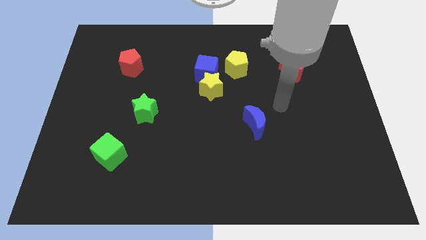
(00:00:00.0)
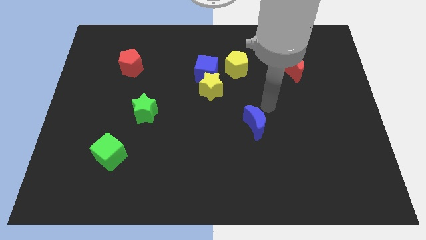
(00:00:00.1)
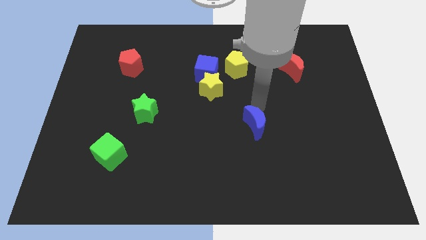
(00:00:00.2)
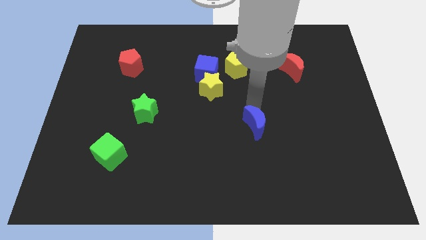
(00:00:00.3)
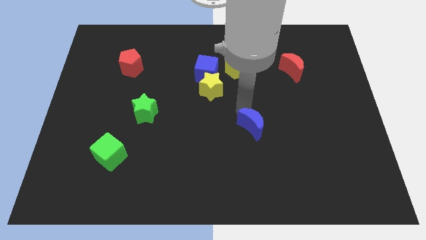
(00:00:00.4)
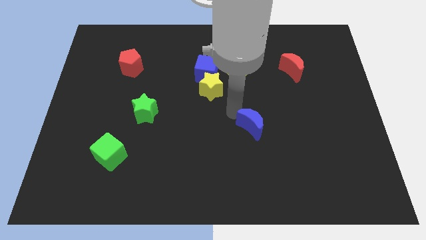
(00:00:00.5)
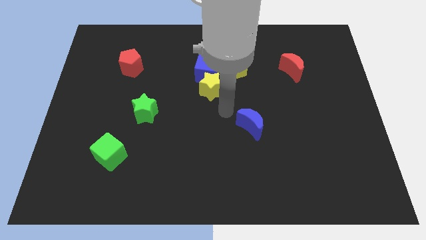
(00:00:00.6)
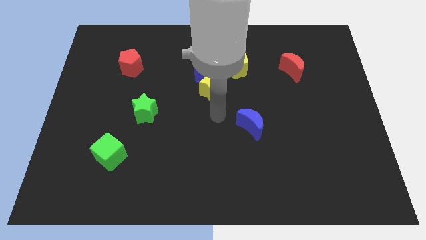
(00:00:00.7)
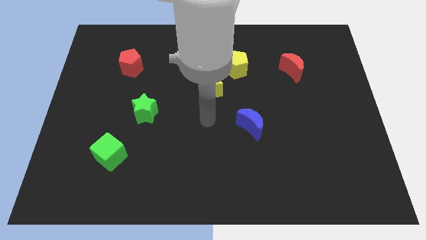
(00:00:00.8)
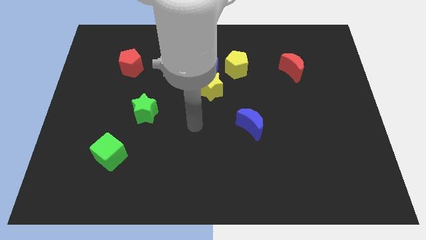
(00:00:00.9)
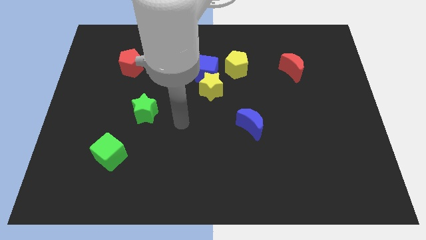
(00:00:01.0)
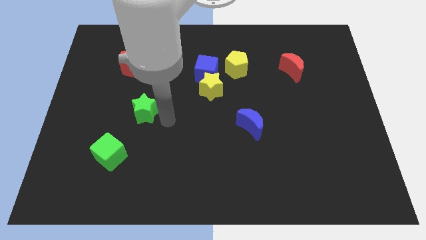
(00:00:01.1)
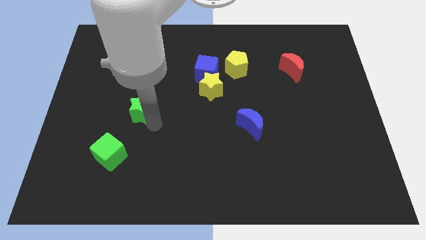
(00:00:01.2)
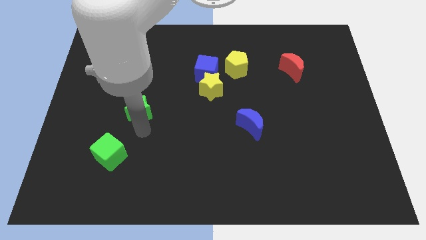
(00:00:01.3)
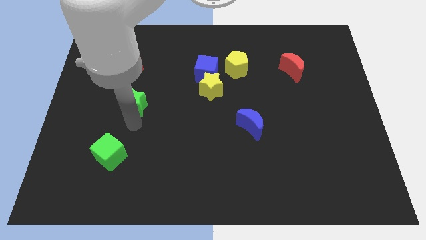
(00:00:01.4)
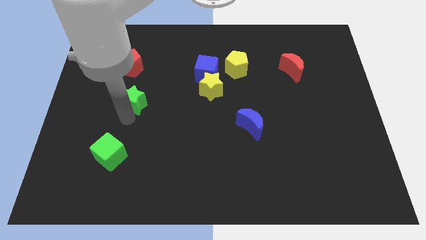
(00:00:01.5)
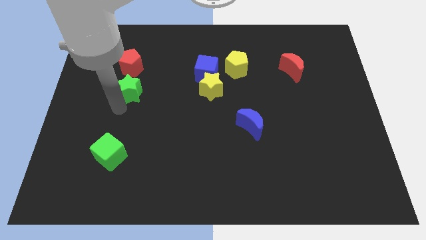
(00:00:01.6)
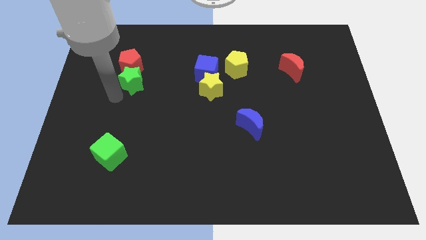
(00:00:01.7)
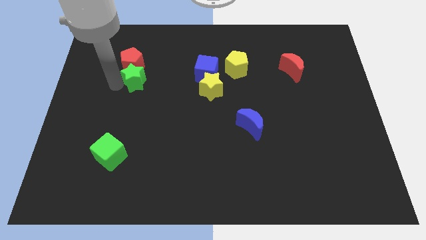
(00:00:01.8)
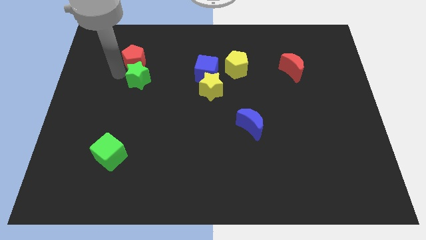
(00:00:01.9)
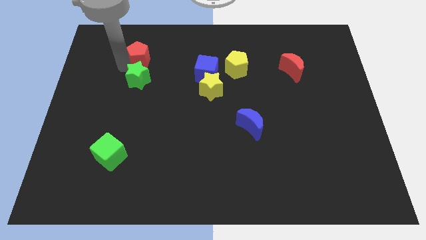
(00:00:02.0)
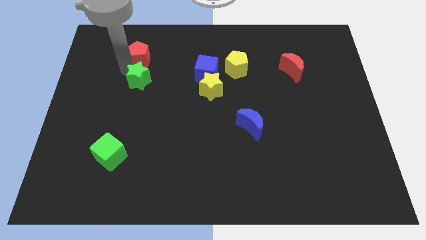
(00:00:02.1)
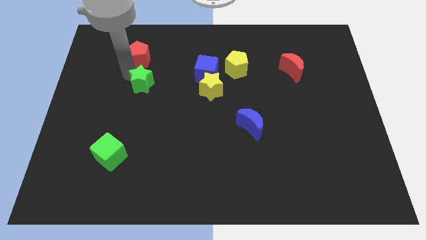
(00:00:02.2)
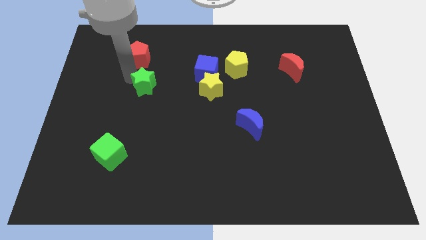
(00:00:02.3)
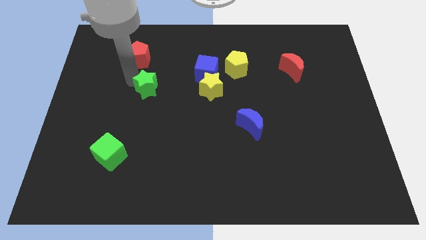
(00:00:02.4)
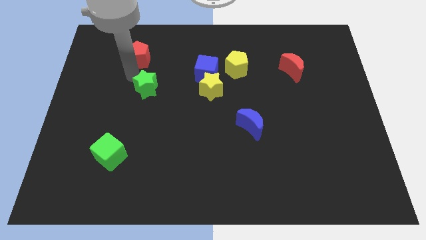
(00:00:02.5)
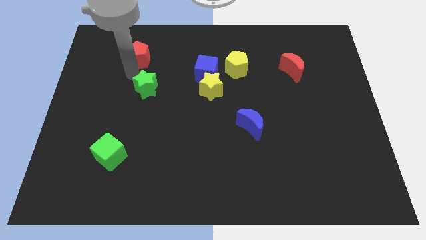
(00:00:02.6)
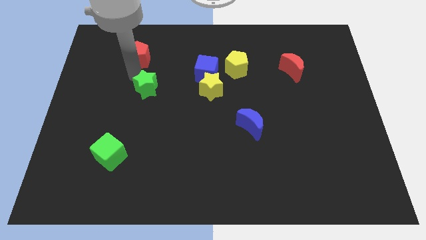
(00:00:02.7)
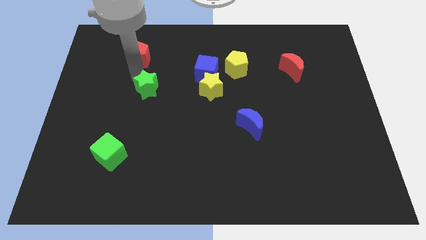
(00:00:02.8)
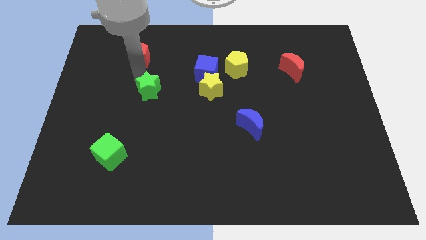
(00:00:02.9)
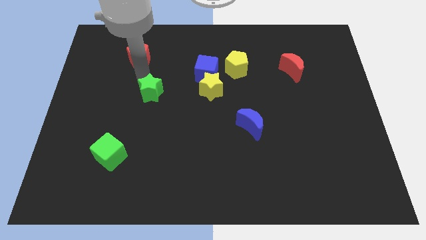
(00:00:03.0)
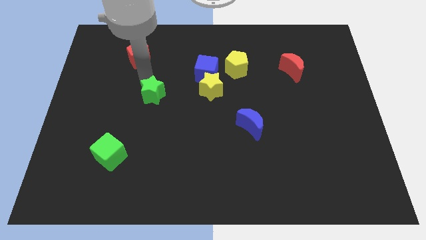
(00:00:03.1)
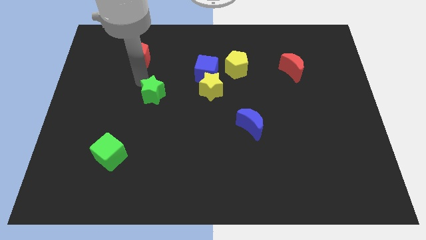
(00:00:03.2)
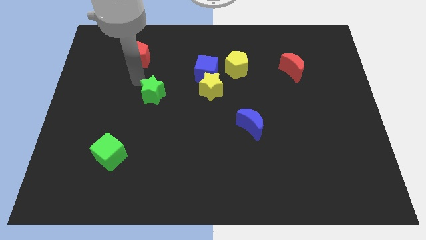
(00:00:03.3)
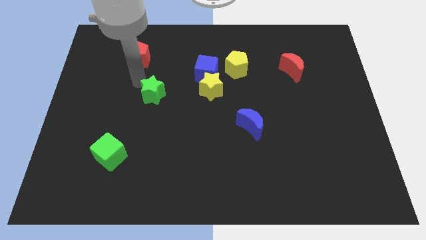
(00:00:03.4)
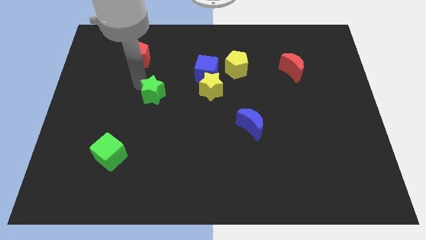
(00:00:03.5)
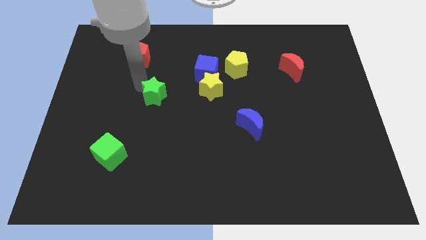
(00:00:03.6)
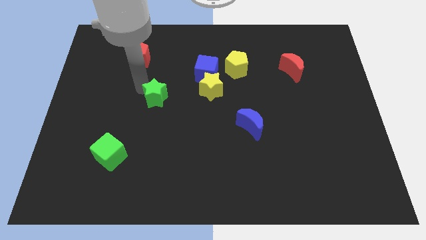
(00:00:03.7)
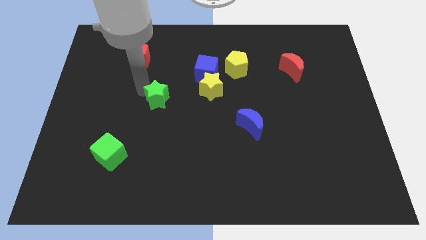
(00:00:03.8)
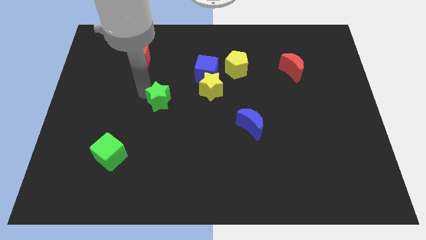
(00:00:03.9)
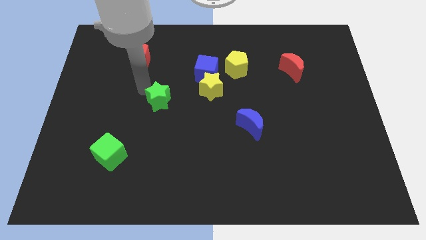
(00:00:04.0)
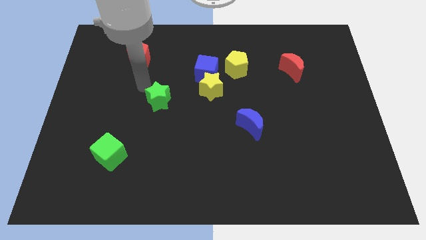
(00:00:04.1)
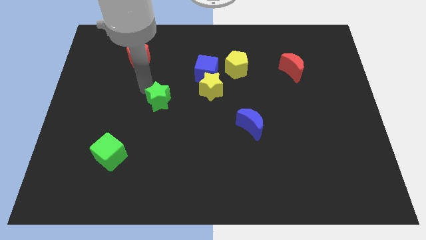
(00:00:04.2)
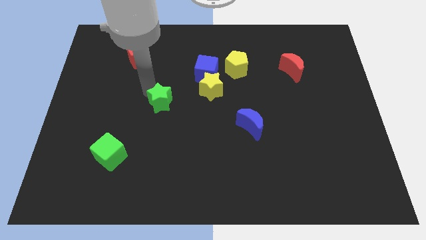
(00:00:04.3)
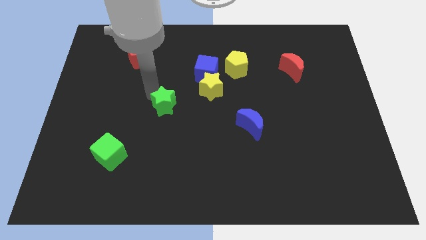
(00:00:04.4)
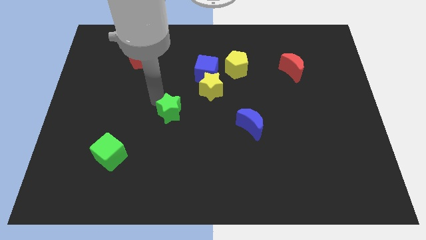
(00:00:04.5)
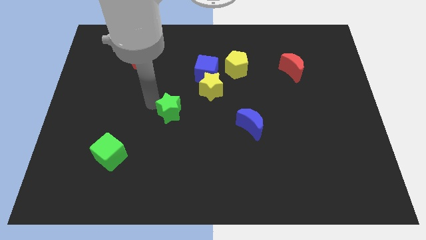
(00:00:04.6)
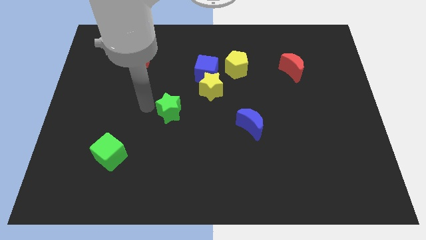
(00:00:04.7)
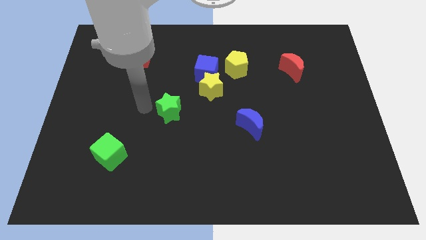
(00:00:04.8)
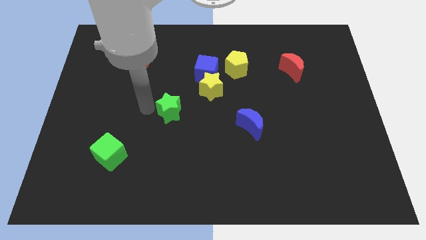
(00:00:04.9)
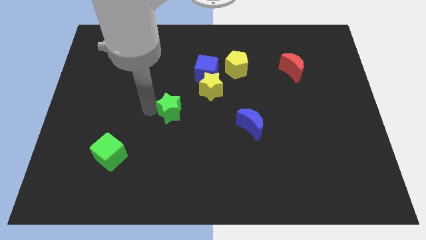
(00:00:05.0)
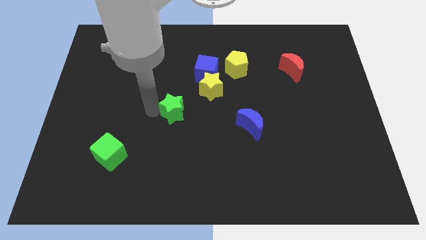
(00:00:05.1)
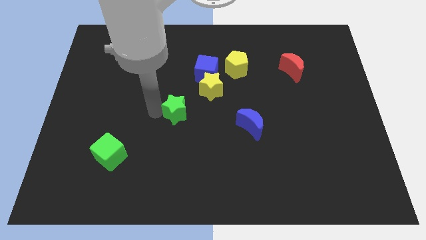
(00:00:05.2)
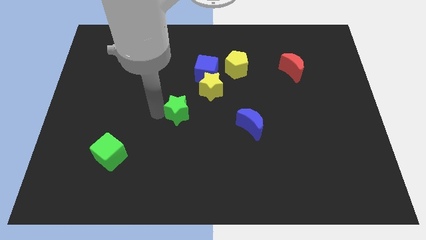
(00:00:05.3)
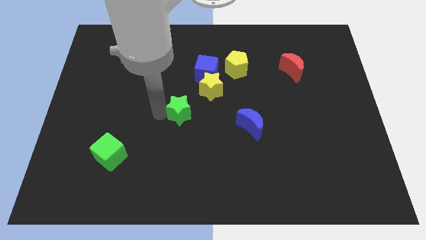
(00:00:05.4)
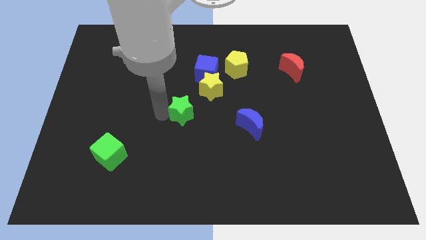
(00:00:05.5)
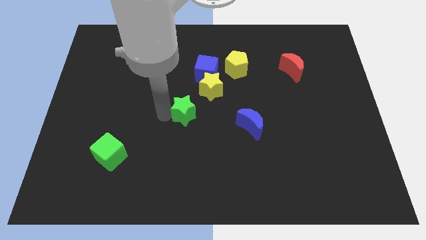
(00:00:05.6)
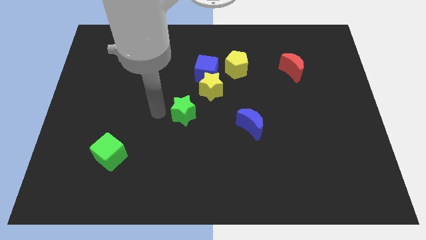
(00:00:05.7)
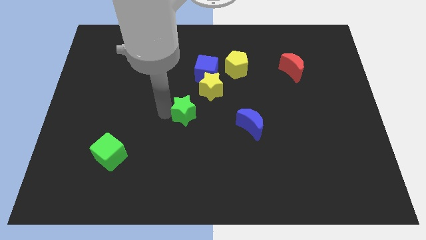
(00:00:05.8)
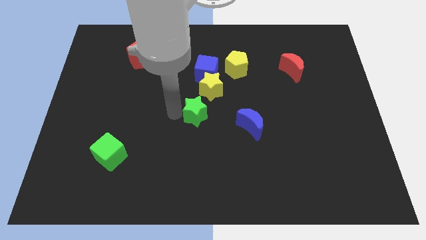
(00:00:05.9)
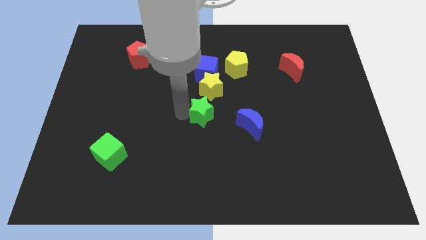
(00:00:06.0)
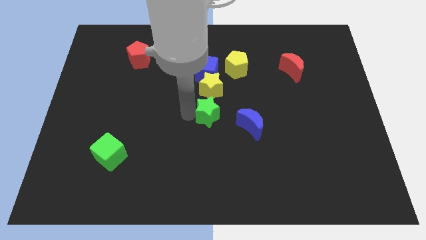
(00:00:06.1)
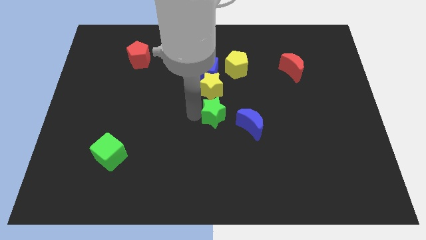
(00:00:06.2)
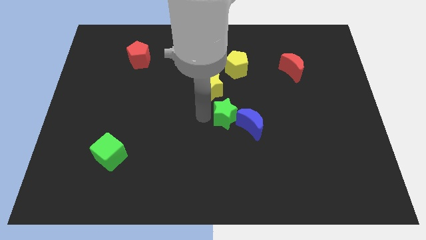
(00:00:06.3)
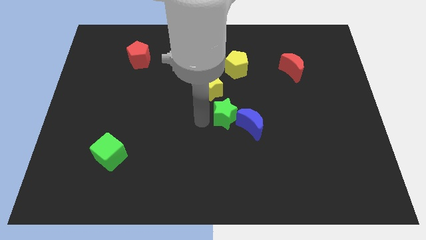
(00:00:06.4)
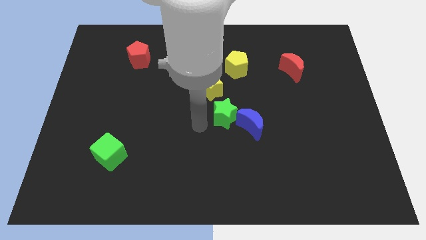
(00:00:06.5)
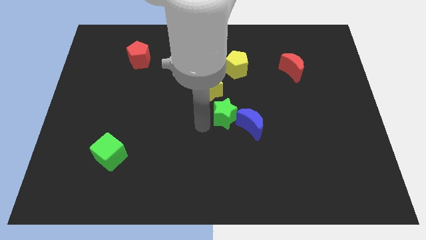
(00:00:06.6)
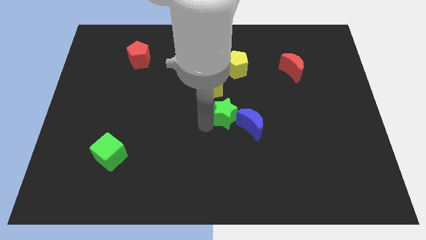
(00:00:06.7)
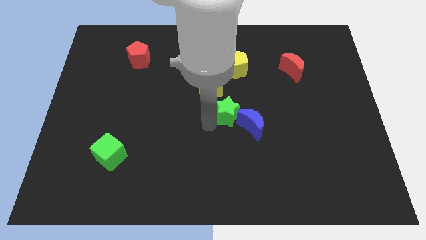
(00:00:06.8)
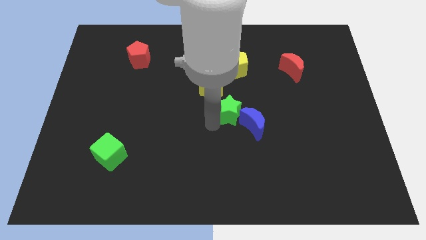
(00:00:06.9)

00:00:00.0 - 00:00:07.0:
slide the green star to the right

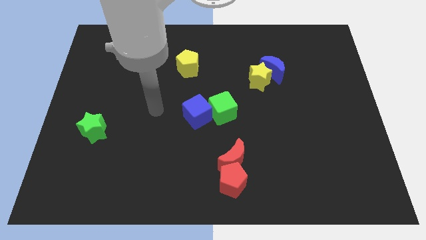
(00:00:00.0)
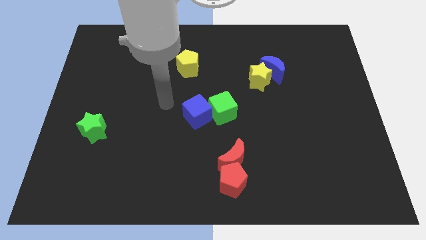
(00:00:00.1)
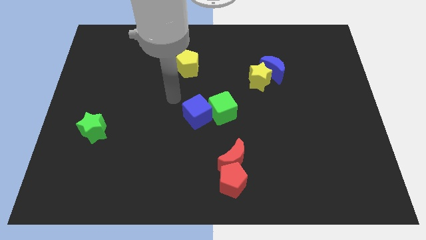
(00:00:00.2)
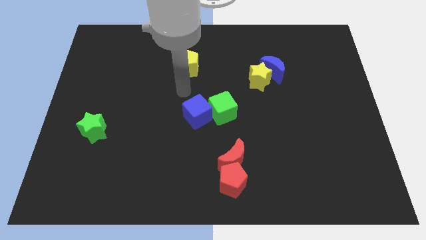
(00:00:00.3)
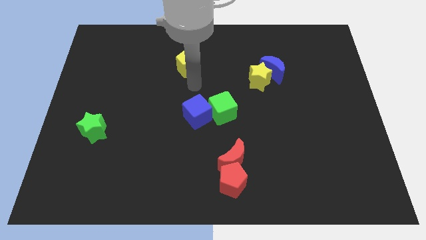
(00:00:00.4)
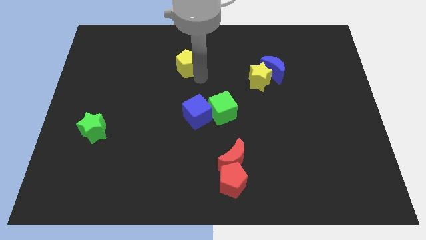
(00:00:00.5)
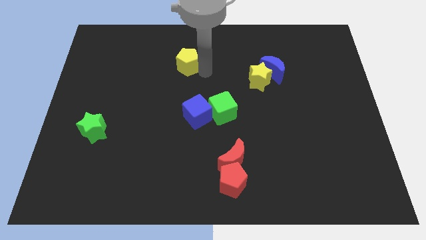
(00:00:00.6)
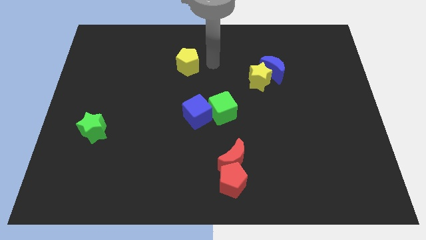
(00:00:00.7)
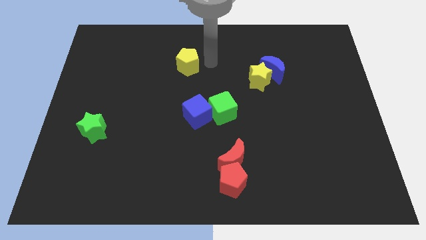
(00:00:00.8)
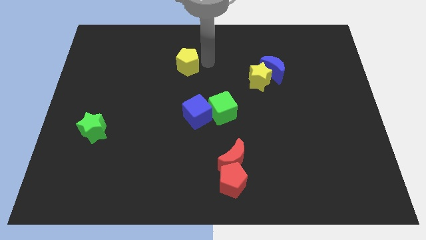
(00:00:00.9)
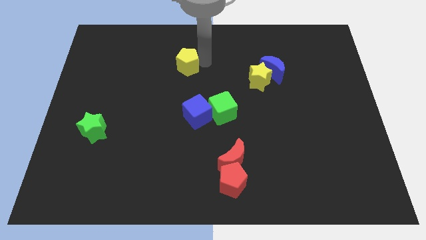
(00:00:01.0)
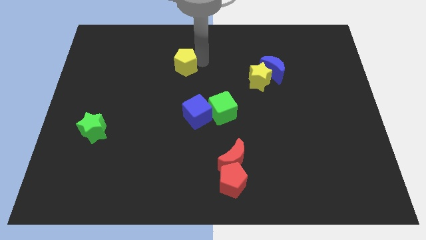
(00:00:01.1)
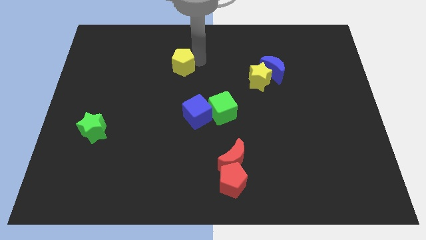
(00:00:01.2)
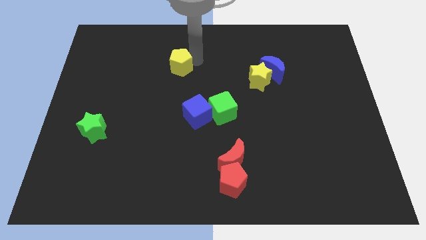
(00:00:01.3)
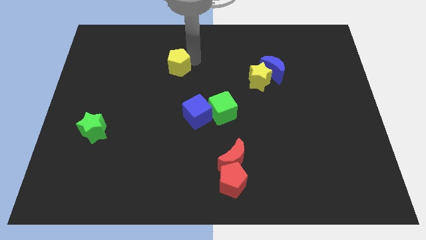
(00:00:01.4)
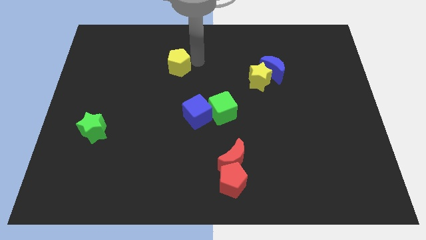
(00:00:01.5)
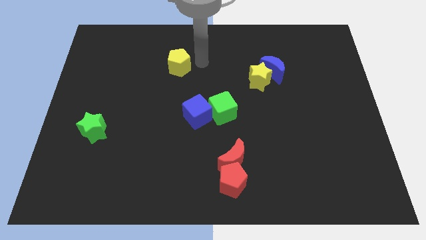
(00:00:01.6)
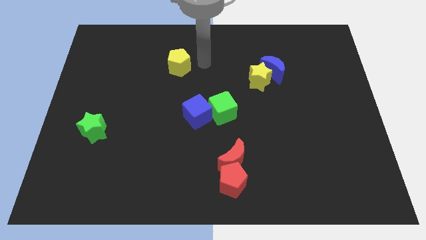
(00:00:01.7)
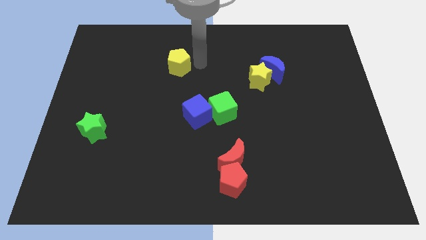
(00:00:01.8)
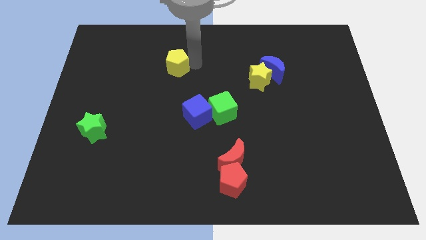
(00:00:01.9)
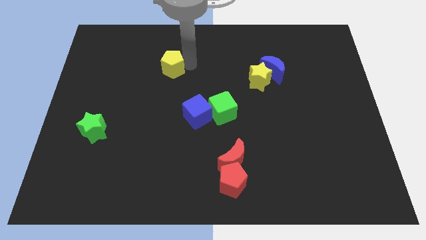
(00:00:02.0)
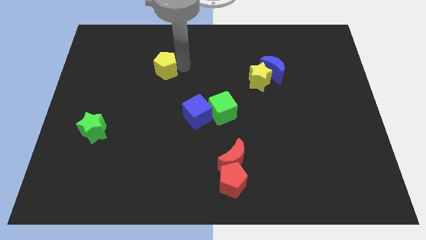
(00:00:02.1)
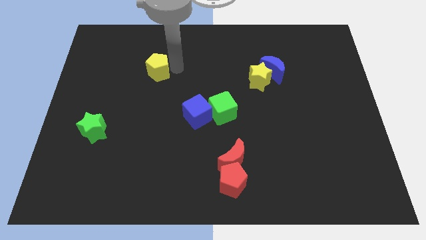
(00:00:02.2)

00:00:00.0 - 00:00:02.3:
slide the yellow pentagon left slightly
